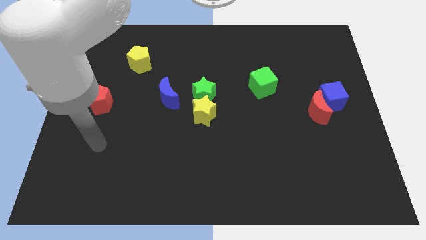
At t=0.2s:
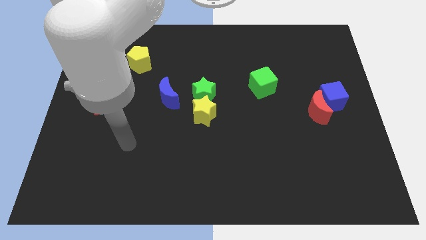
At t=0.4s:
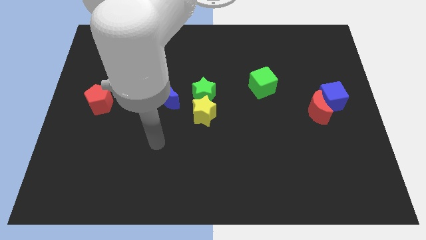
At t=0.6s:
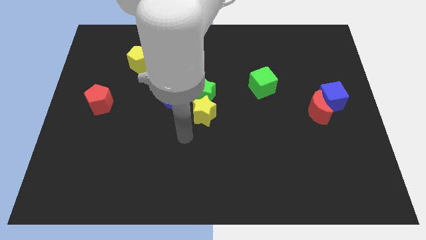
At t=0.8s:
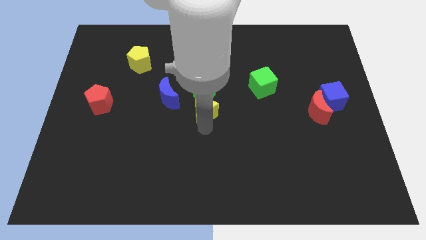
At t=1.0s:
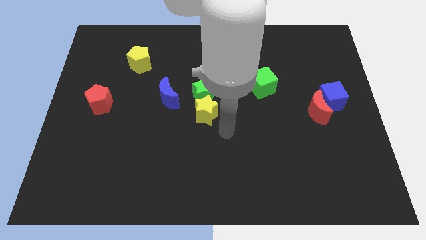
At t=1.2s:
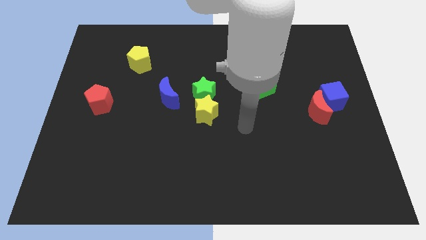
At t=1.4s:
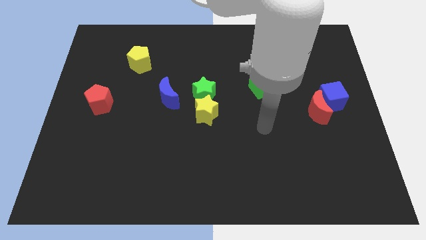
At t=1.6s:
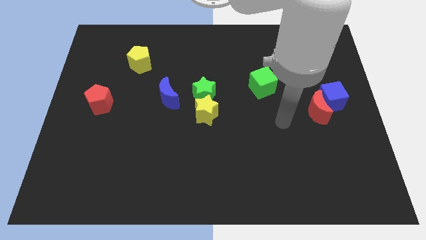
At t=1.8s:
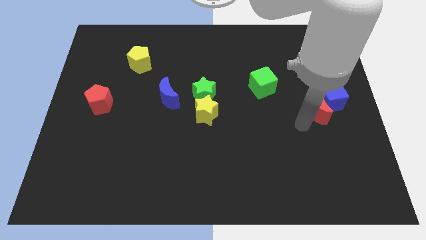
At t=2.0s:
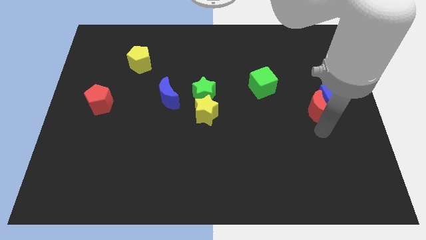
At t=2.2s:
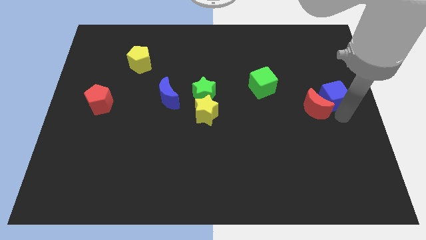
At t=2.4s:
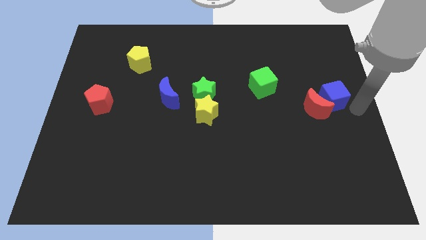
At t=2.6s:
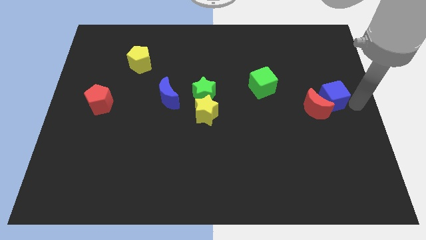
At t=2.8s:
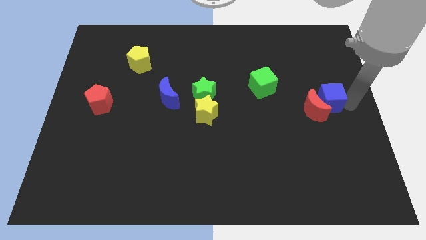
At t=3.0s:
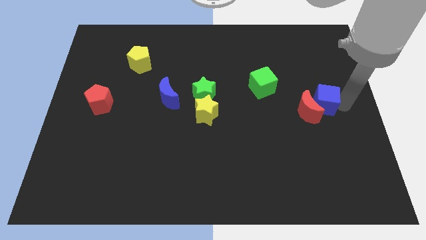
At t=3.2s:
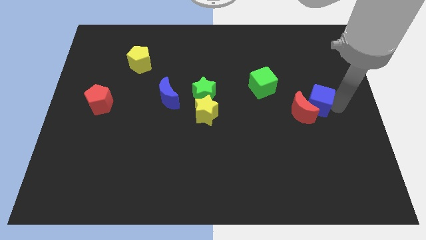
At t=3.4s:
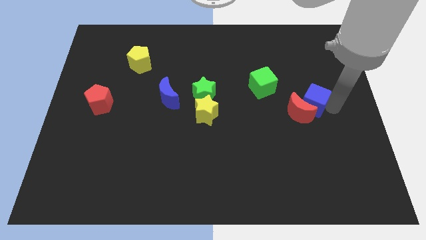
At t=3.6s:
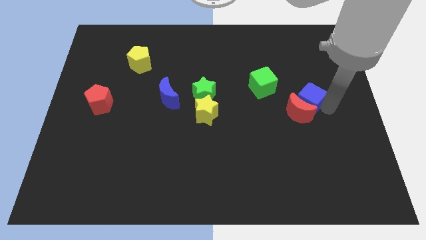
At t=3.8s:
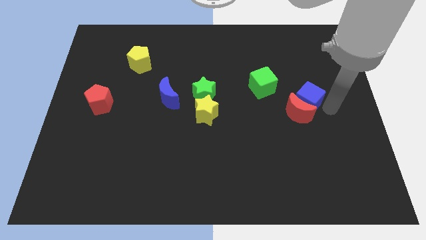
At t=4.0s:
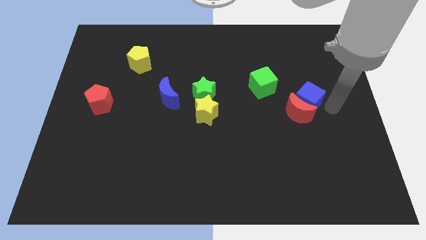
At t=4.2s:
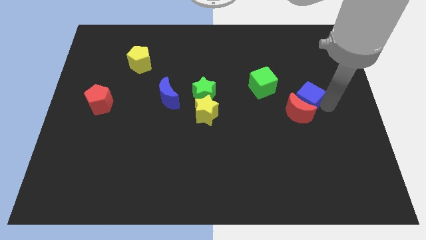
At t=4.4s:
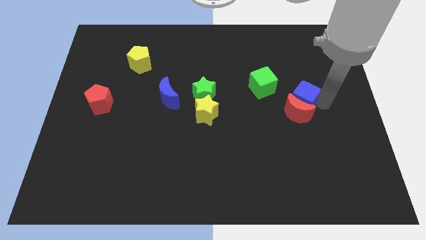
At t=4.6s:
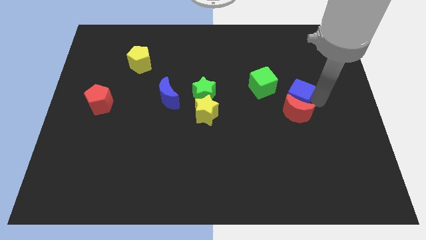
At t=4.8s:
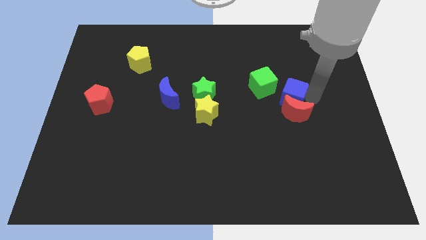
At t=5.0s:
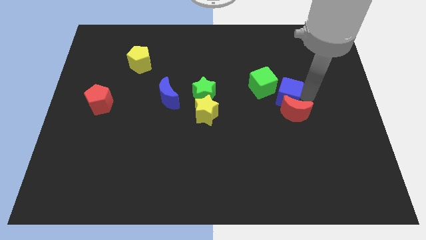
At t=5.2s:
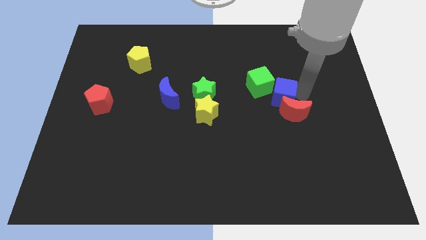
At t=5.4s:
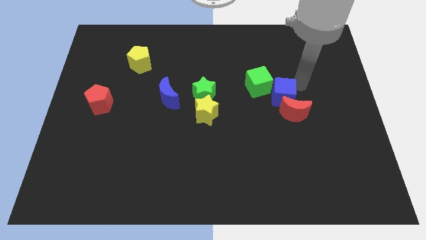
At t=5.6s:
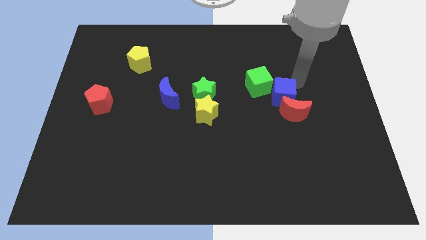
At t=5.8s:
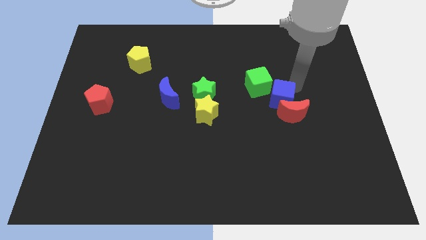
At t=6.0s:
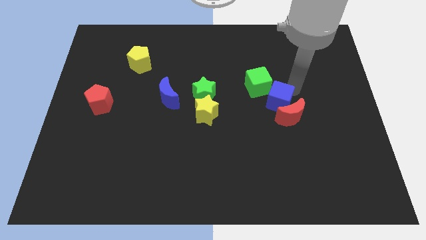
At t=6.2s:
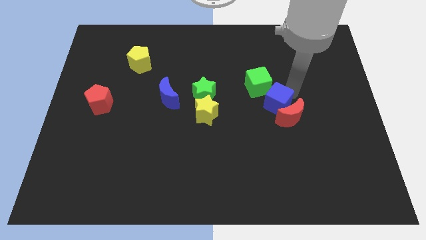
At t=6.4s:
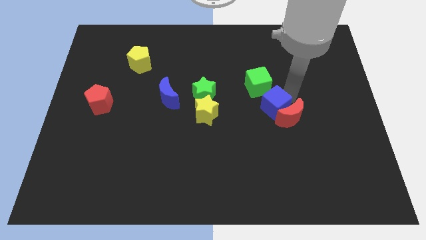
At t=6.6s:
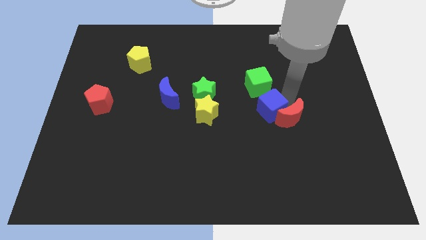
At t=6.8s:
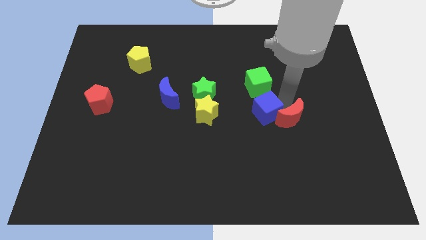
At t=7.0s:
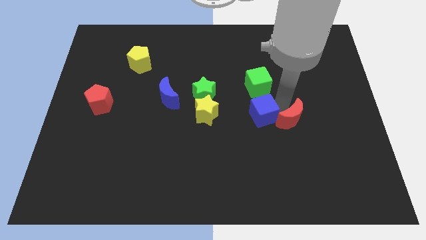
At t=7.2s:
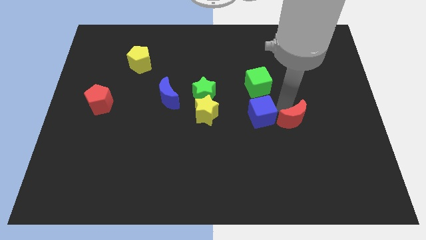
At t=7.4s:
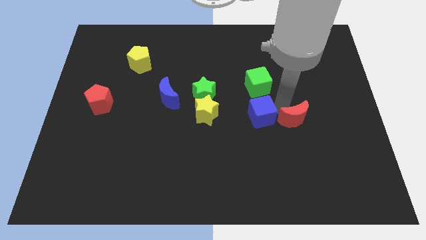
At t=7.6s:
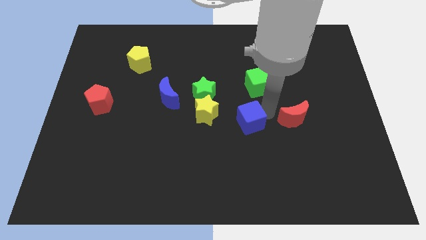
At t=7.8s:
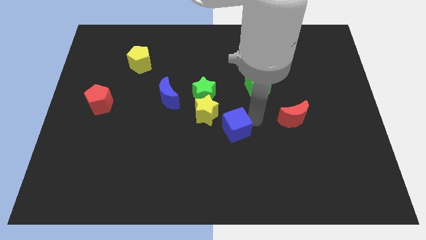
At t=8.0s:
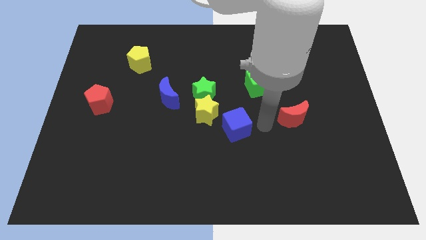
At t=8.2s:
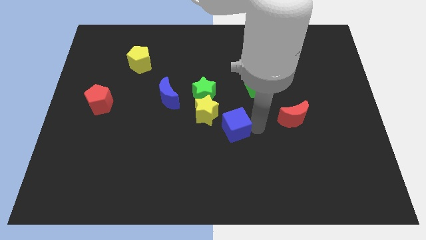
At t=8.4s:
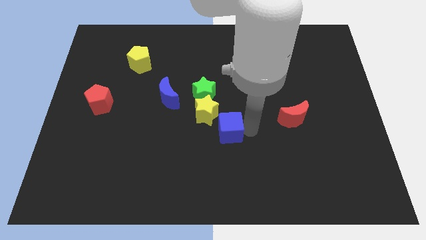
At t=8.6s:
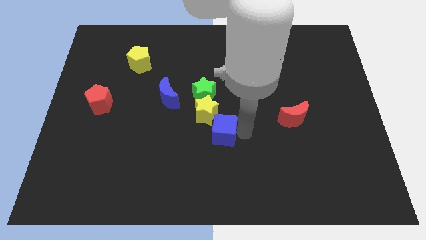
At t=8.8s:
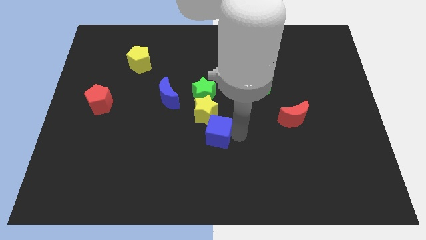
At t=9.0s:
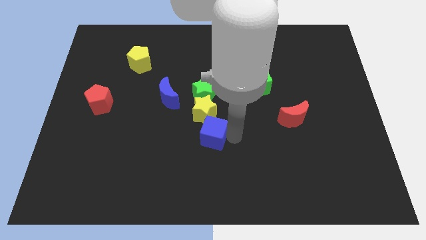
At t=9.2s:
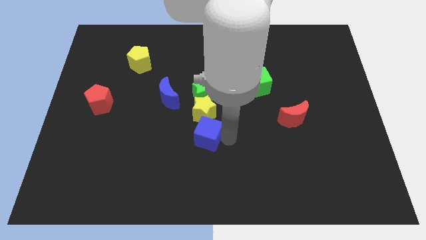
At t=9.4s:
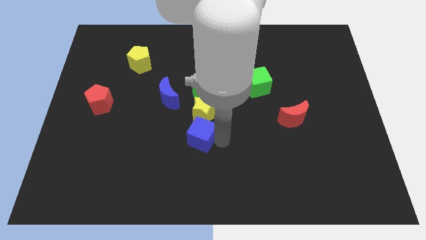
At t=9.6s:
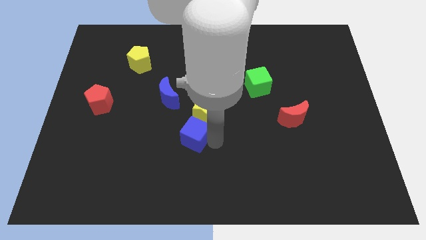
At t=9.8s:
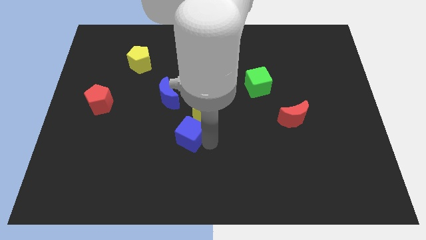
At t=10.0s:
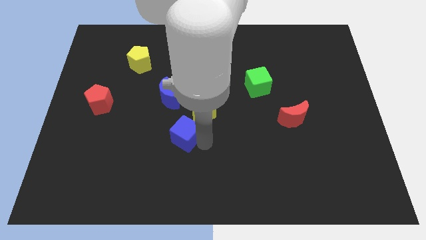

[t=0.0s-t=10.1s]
put the blue cube below the blue moon

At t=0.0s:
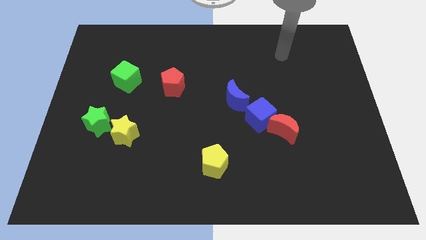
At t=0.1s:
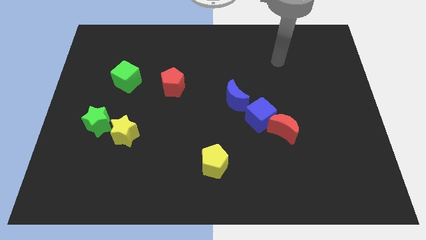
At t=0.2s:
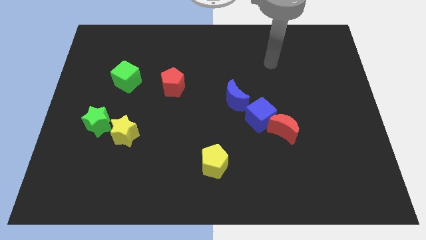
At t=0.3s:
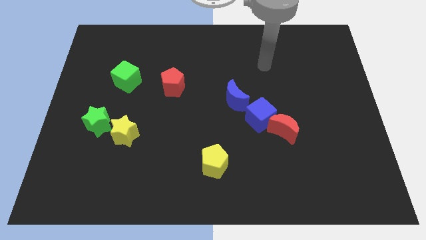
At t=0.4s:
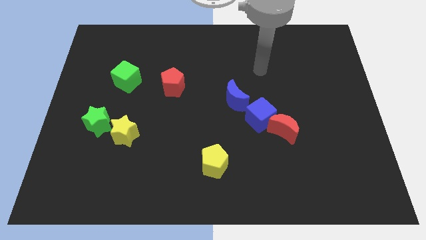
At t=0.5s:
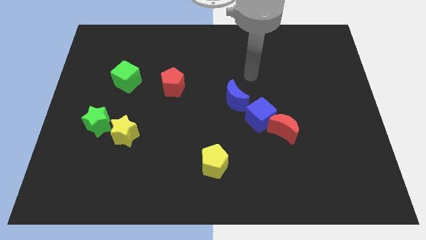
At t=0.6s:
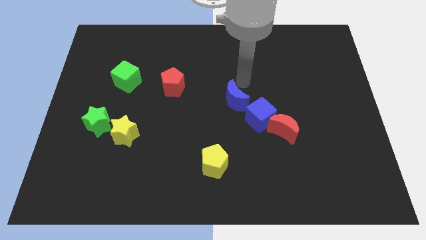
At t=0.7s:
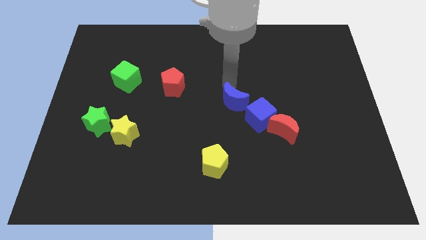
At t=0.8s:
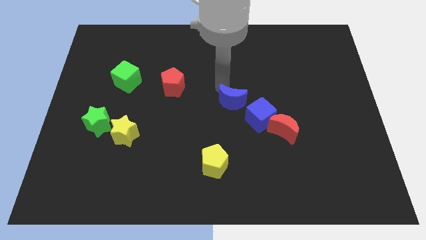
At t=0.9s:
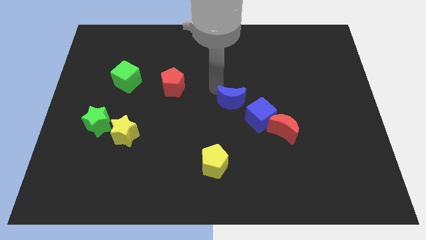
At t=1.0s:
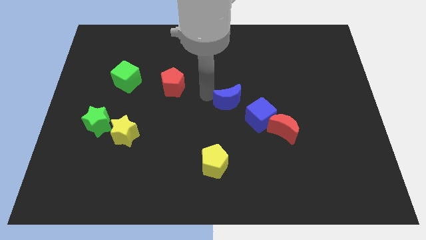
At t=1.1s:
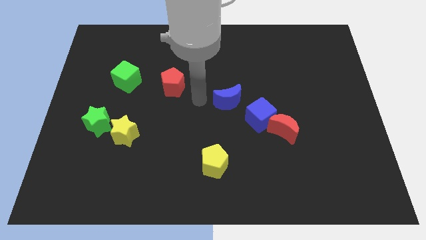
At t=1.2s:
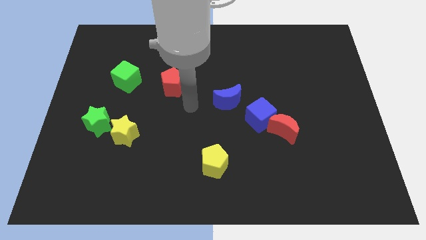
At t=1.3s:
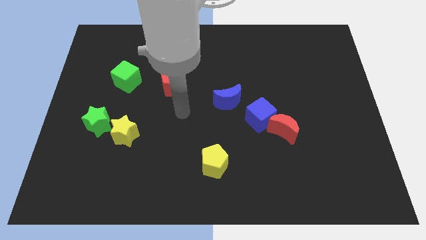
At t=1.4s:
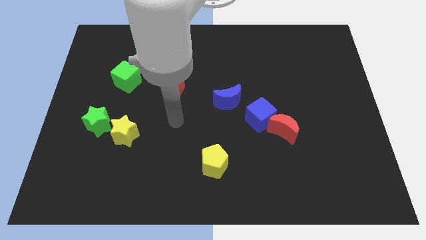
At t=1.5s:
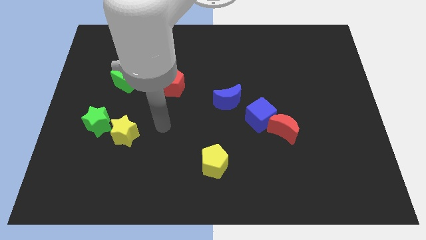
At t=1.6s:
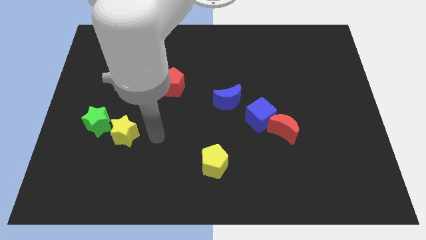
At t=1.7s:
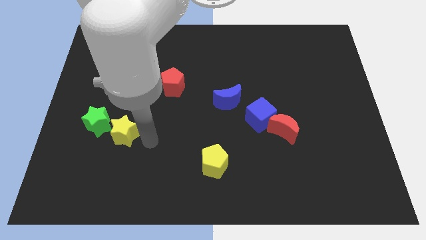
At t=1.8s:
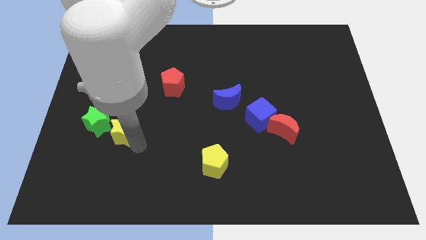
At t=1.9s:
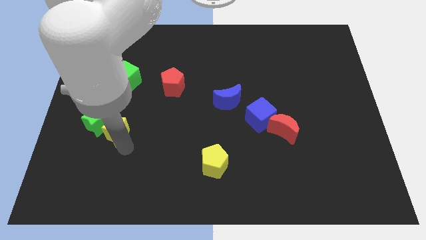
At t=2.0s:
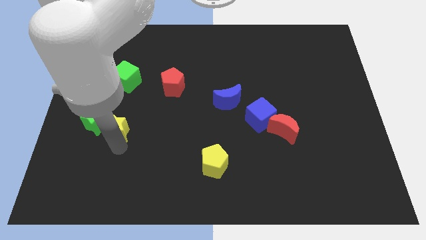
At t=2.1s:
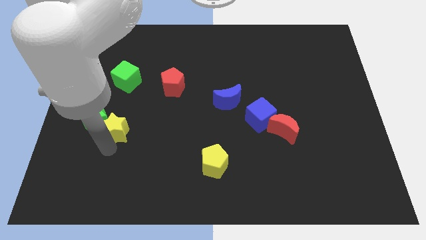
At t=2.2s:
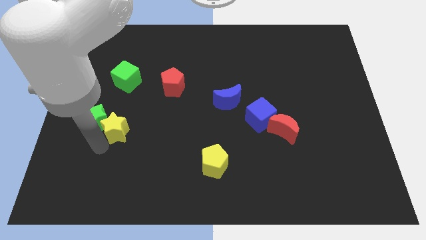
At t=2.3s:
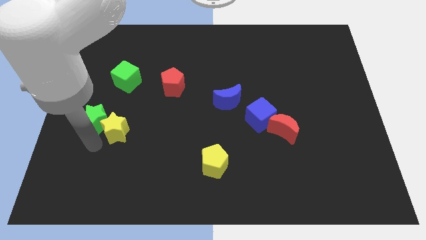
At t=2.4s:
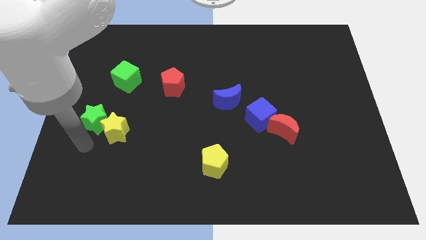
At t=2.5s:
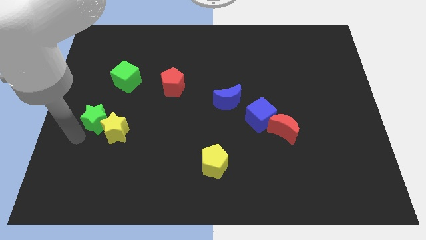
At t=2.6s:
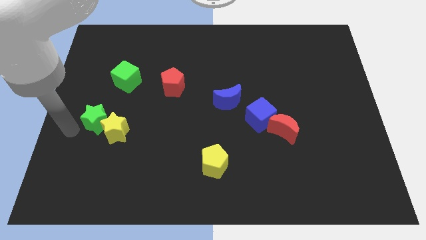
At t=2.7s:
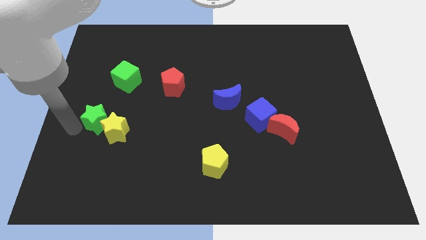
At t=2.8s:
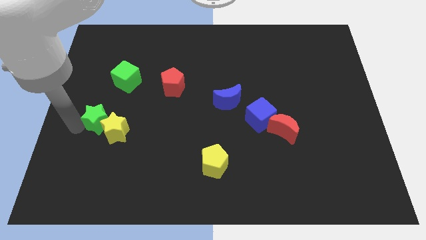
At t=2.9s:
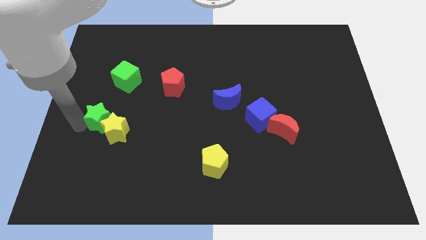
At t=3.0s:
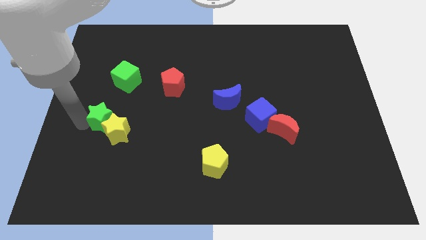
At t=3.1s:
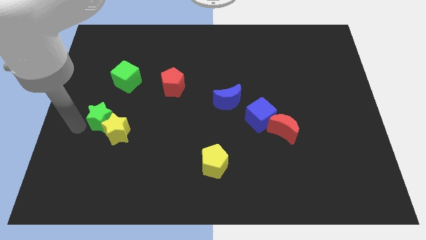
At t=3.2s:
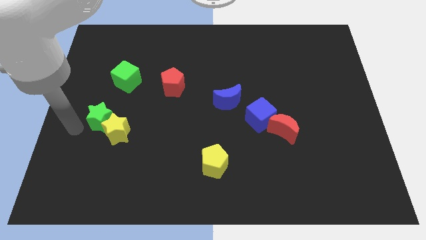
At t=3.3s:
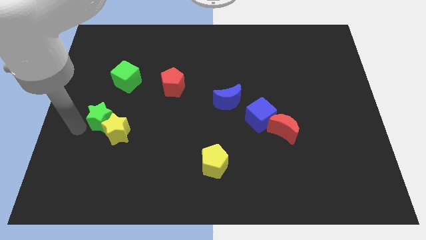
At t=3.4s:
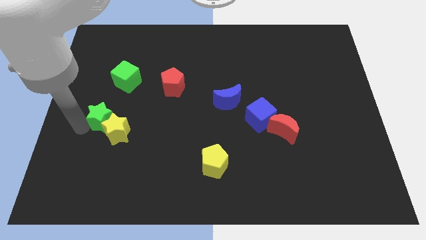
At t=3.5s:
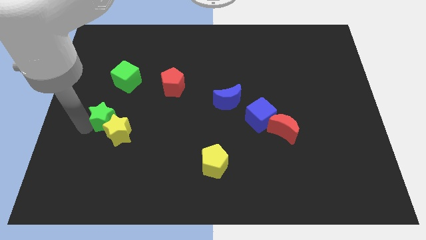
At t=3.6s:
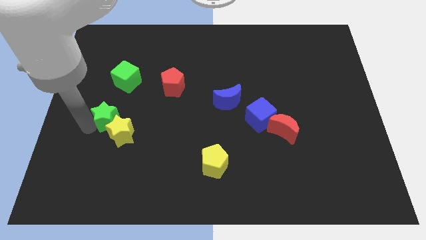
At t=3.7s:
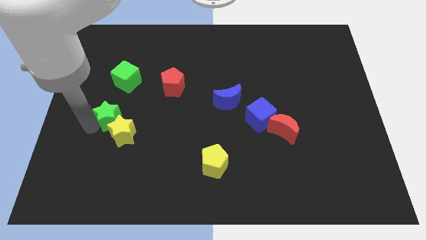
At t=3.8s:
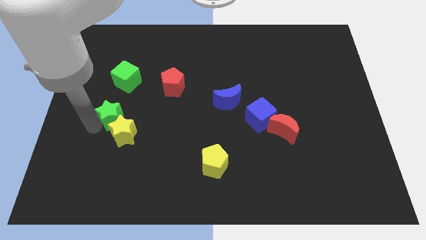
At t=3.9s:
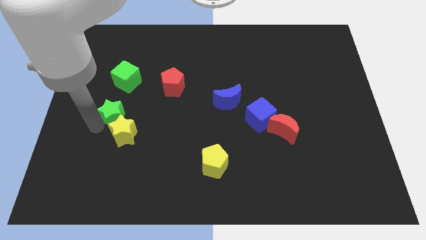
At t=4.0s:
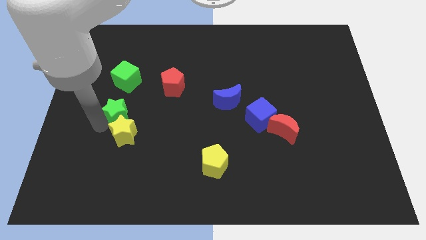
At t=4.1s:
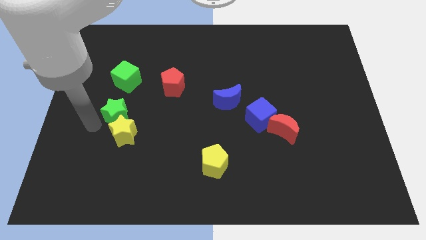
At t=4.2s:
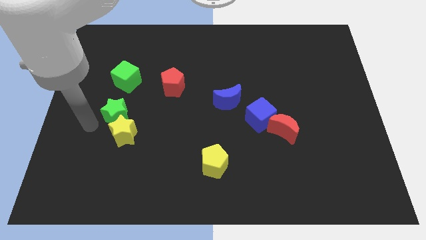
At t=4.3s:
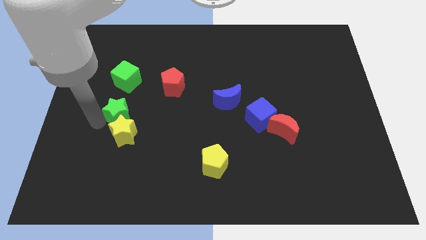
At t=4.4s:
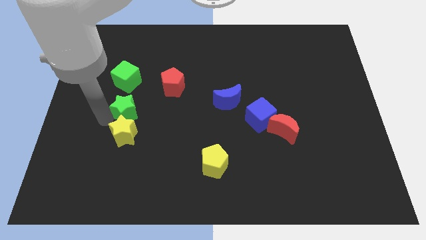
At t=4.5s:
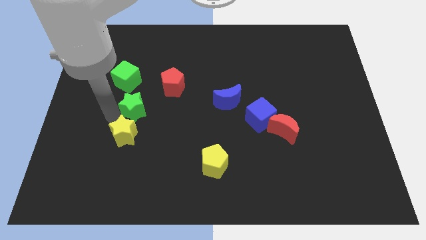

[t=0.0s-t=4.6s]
put the green star to the bottom left side of the red pentagon
